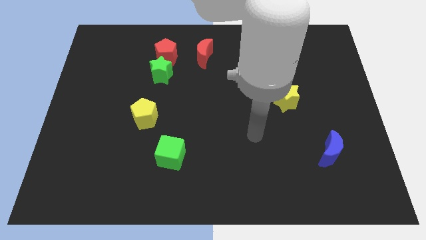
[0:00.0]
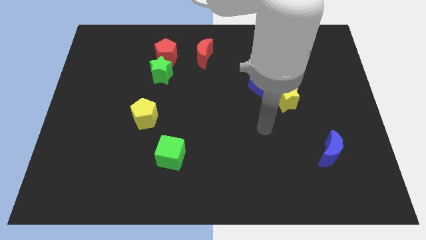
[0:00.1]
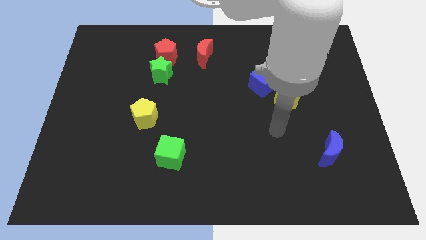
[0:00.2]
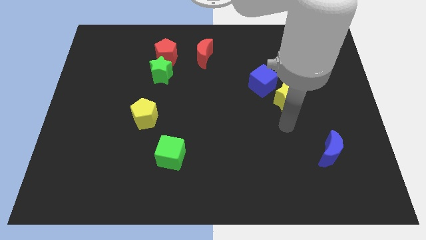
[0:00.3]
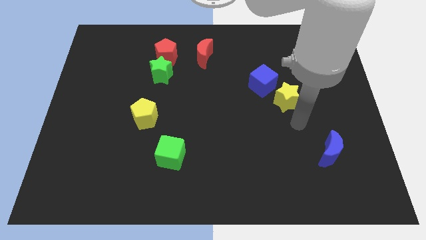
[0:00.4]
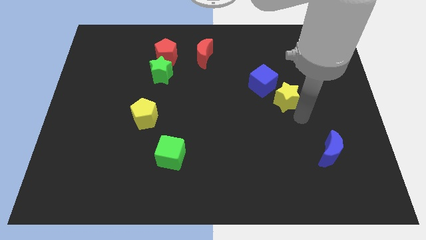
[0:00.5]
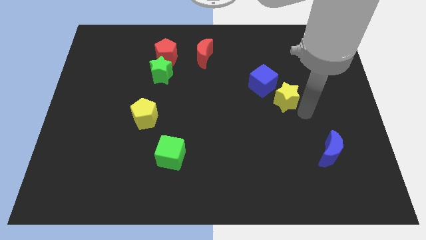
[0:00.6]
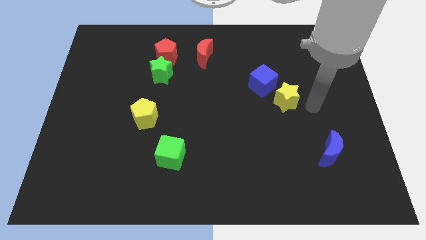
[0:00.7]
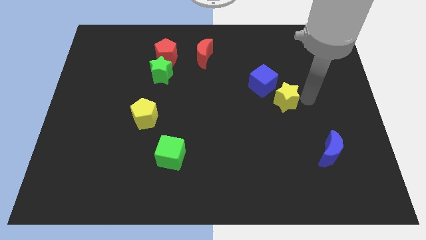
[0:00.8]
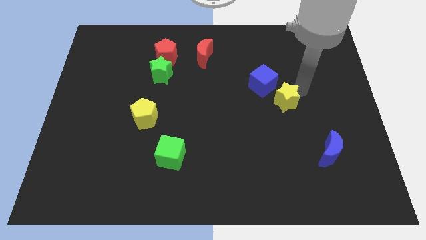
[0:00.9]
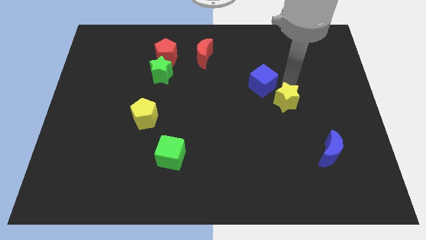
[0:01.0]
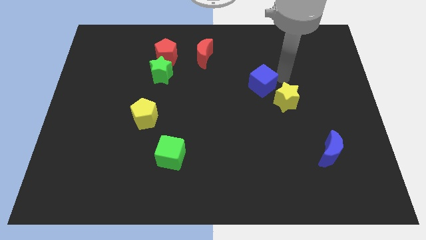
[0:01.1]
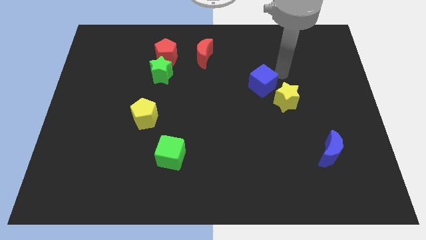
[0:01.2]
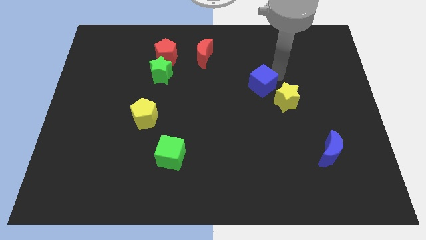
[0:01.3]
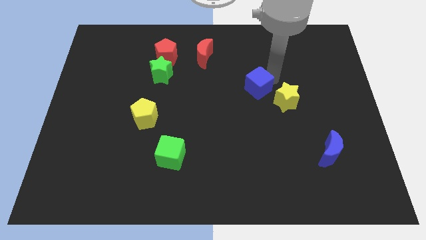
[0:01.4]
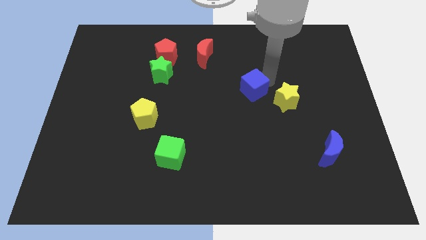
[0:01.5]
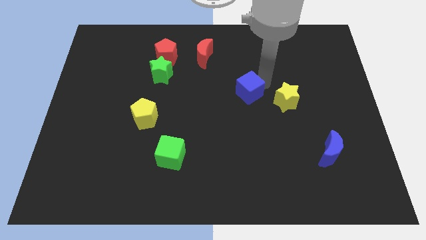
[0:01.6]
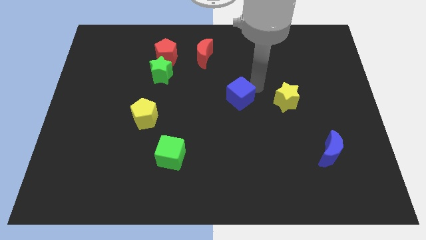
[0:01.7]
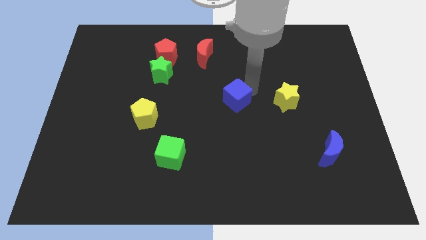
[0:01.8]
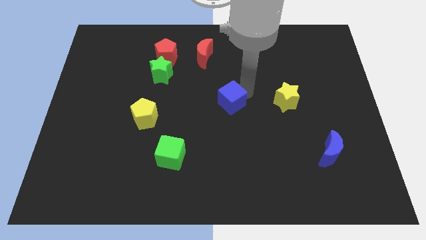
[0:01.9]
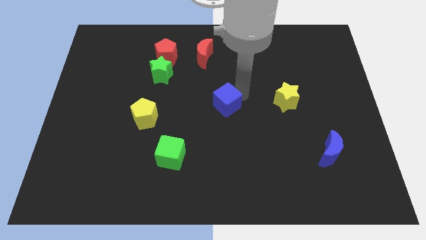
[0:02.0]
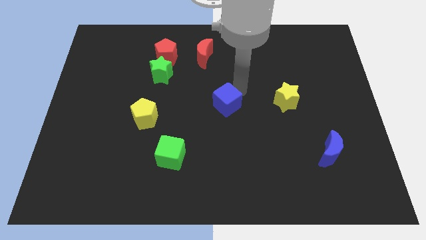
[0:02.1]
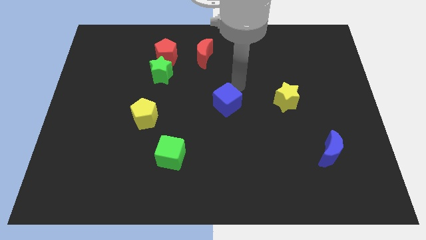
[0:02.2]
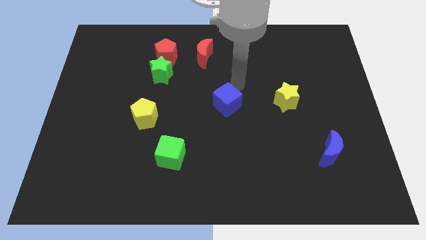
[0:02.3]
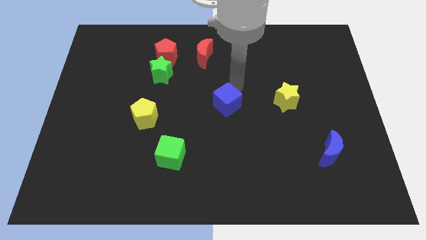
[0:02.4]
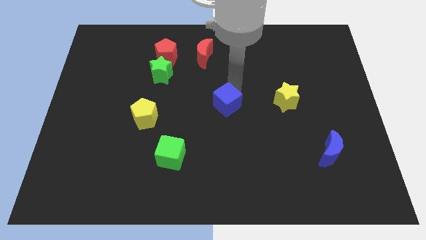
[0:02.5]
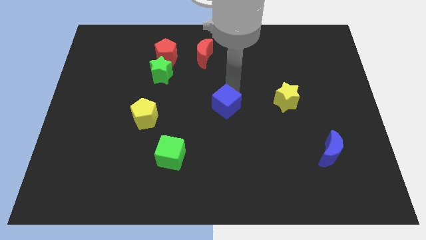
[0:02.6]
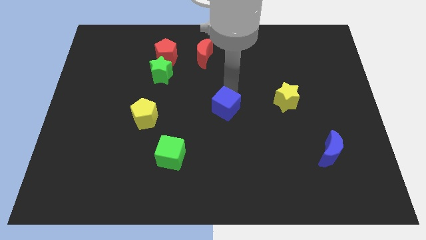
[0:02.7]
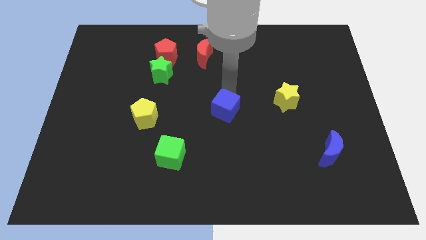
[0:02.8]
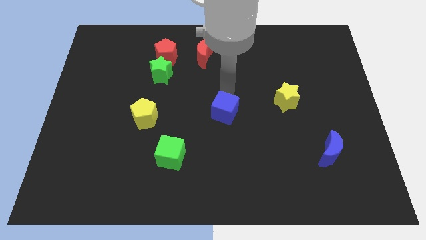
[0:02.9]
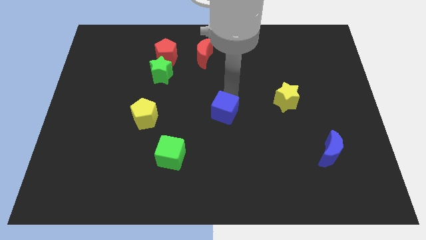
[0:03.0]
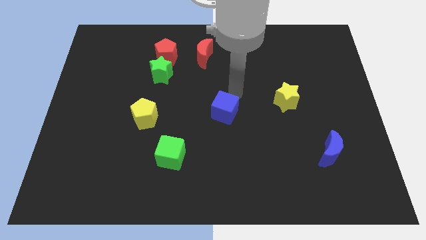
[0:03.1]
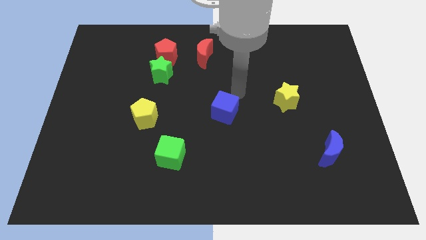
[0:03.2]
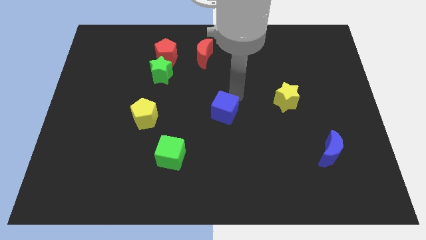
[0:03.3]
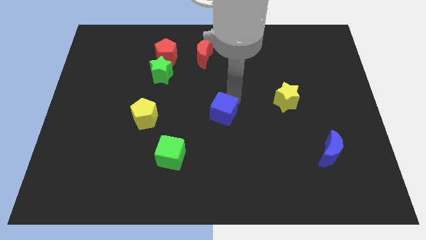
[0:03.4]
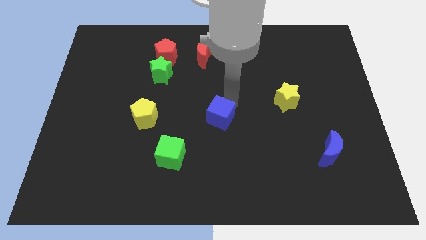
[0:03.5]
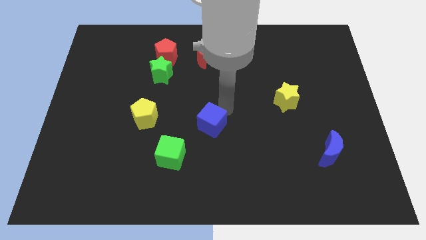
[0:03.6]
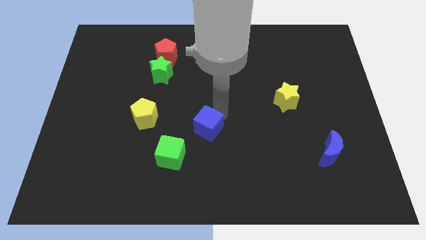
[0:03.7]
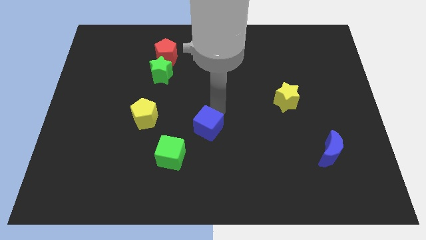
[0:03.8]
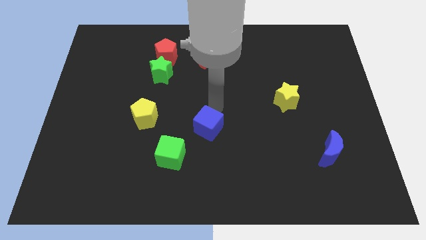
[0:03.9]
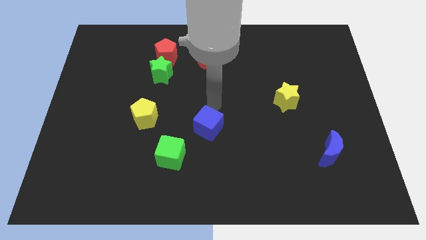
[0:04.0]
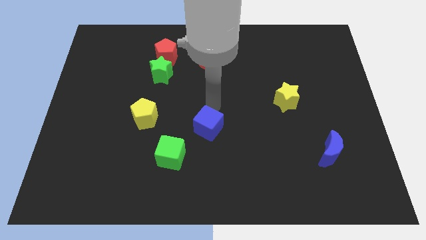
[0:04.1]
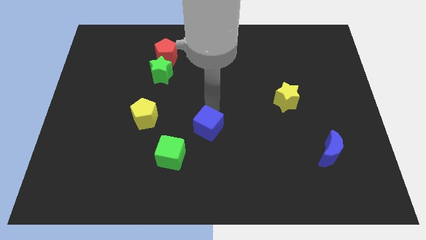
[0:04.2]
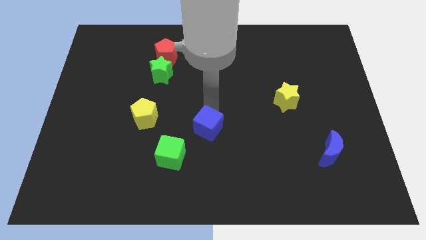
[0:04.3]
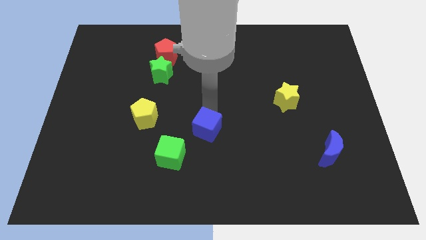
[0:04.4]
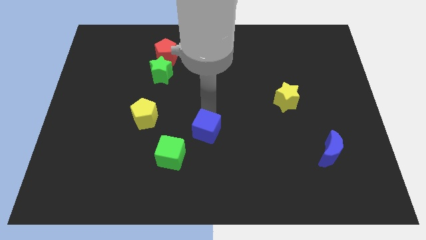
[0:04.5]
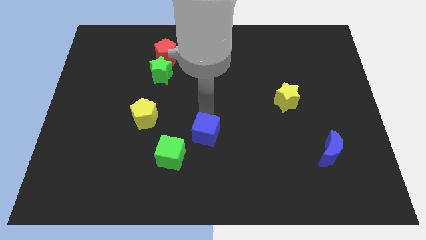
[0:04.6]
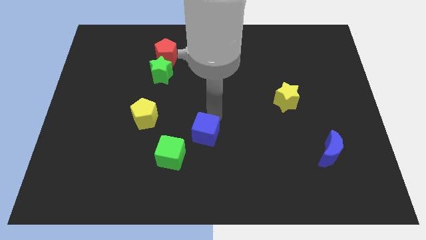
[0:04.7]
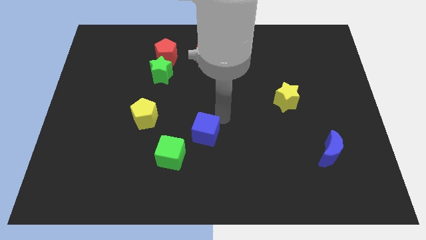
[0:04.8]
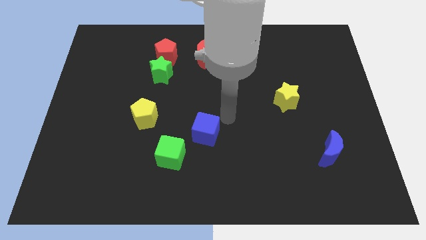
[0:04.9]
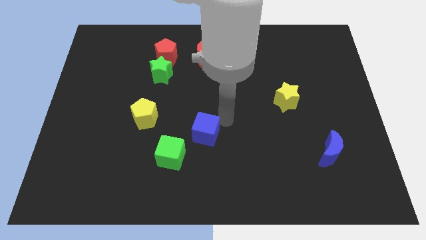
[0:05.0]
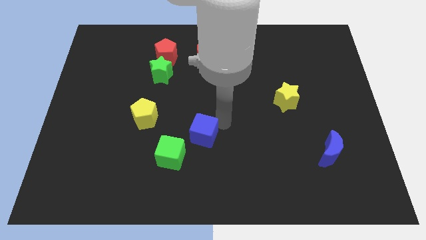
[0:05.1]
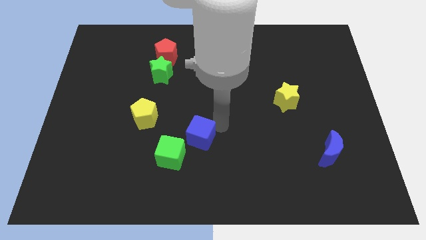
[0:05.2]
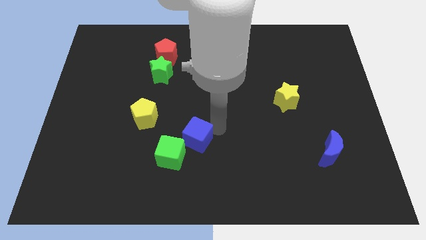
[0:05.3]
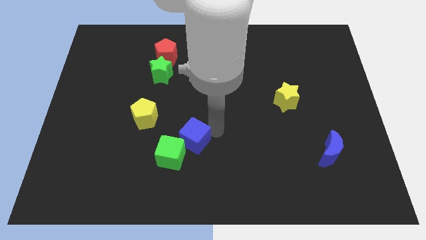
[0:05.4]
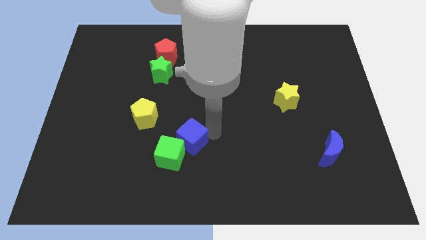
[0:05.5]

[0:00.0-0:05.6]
put the blue cube close to the green cube

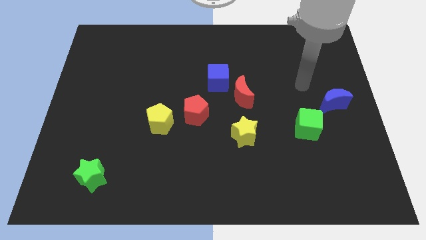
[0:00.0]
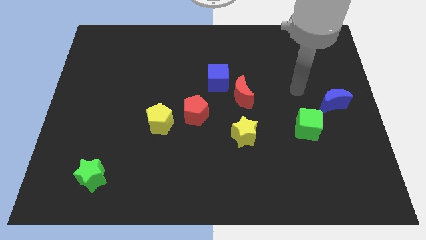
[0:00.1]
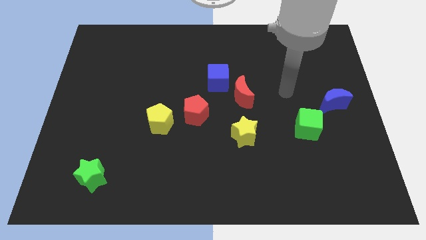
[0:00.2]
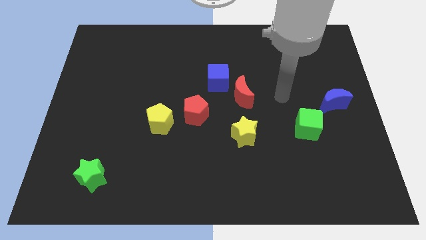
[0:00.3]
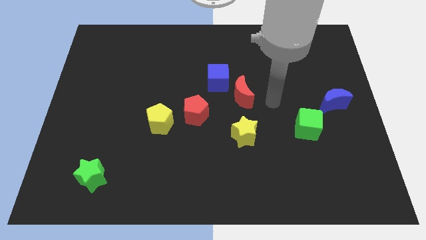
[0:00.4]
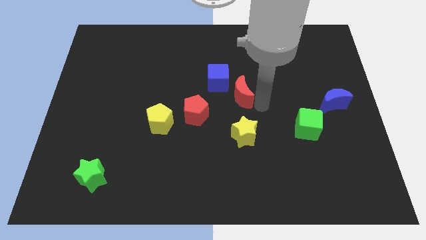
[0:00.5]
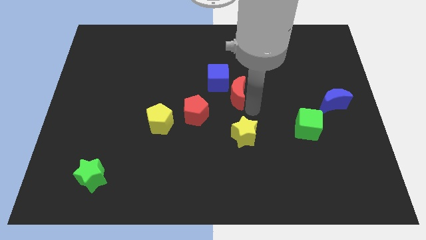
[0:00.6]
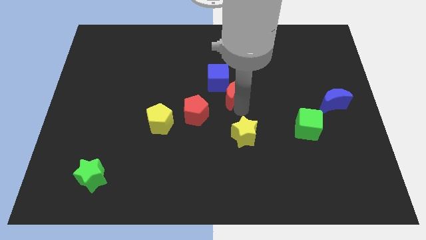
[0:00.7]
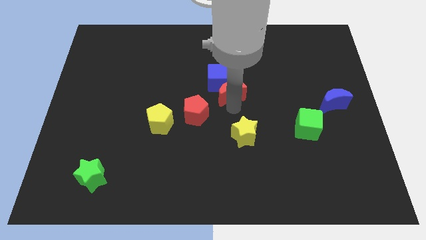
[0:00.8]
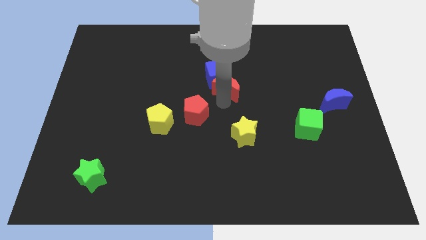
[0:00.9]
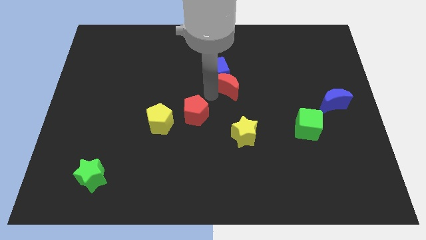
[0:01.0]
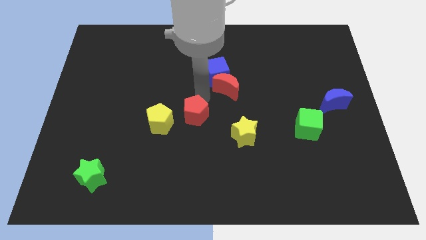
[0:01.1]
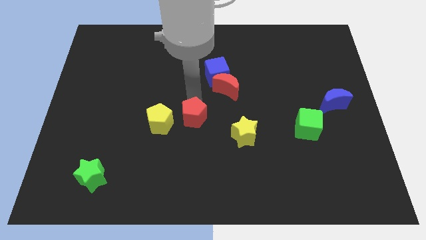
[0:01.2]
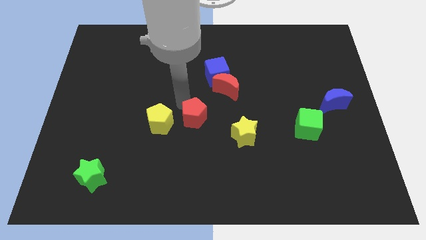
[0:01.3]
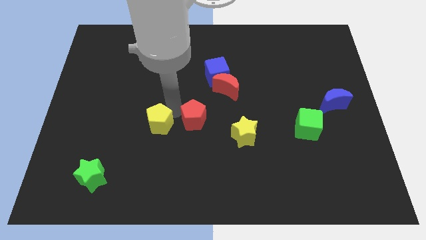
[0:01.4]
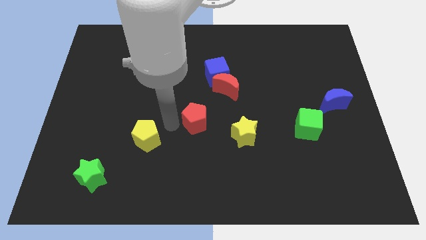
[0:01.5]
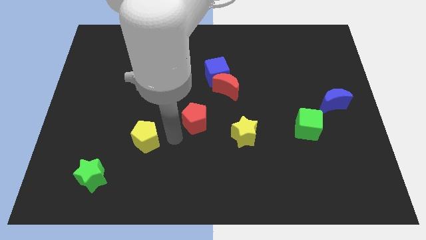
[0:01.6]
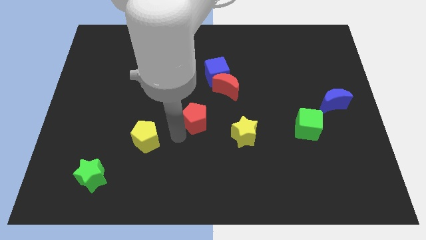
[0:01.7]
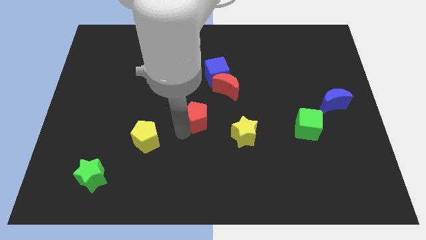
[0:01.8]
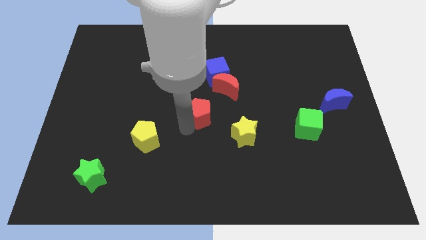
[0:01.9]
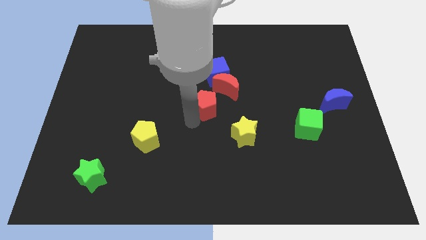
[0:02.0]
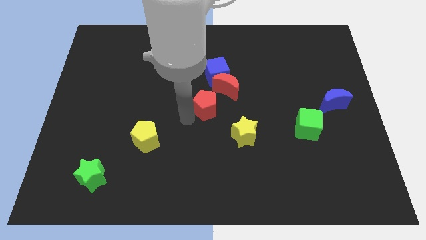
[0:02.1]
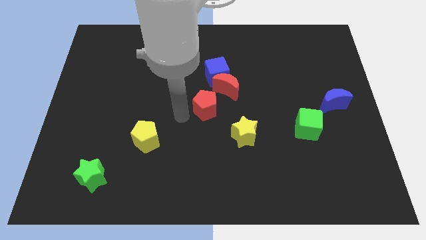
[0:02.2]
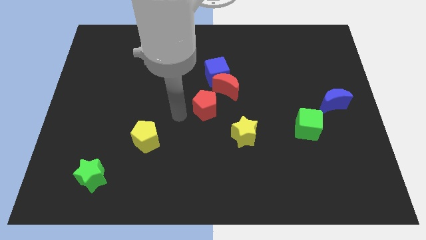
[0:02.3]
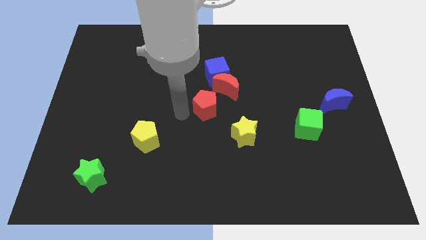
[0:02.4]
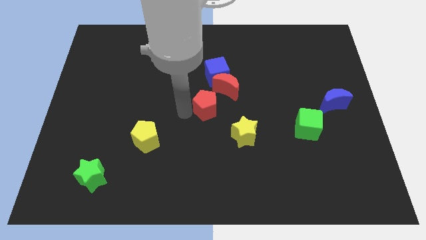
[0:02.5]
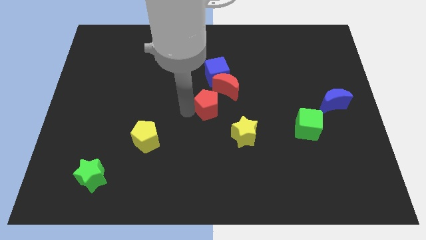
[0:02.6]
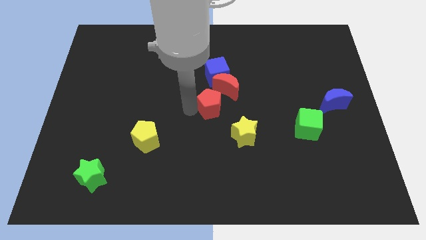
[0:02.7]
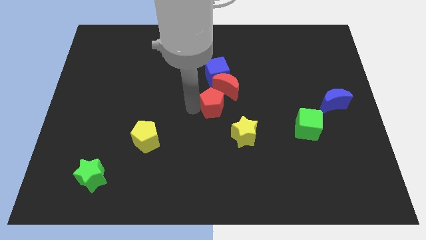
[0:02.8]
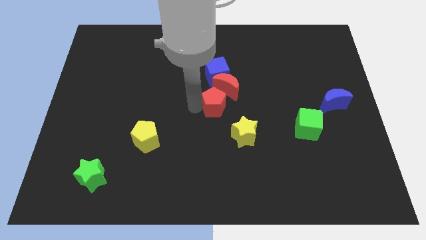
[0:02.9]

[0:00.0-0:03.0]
slide the red pentagon next to the red moon
